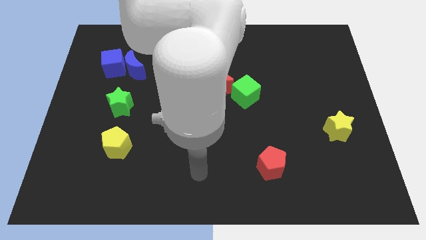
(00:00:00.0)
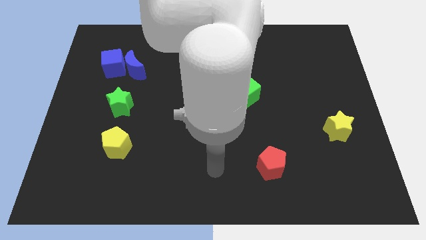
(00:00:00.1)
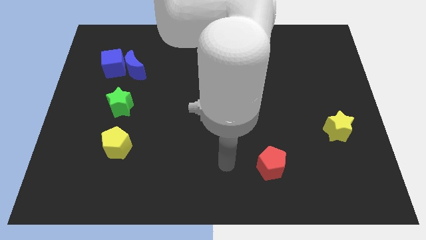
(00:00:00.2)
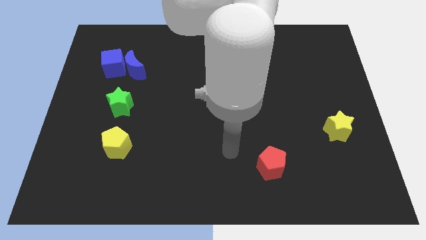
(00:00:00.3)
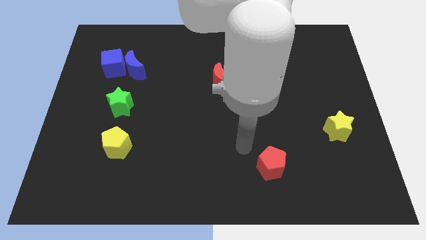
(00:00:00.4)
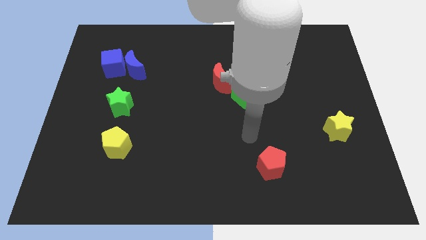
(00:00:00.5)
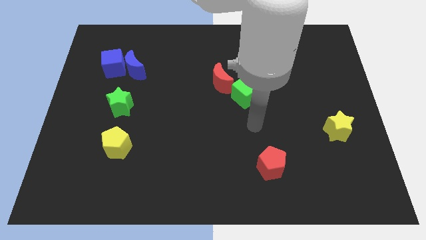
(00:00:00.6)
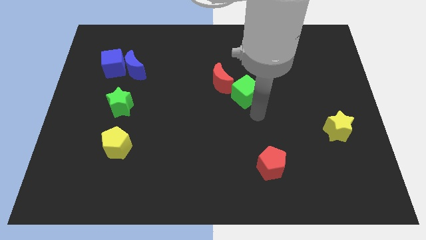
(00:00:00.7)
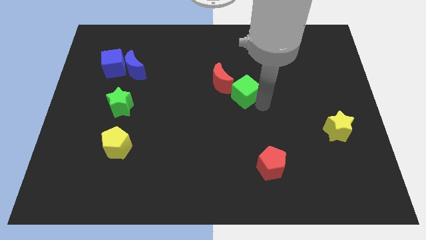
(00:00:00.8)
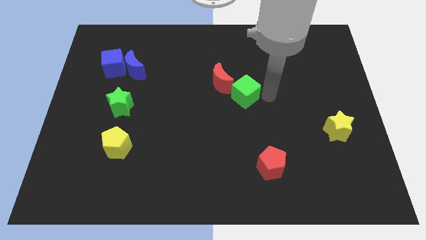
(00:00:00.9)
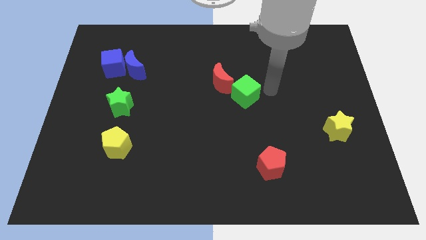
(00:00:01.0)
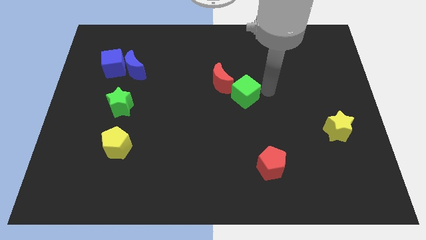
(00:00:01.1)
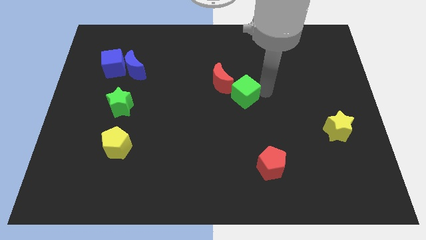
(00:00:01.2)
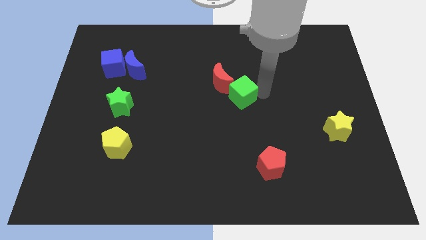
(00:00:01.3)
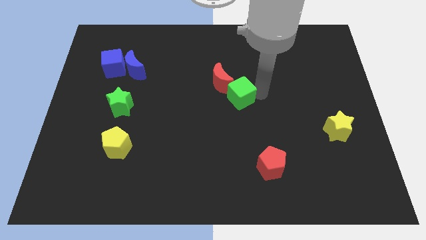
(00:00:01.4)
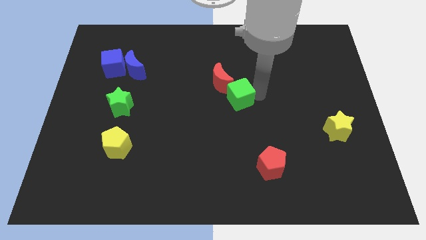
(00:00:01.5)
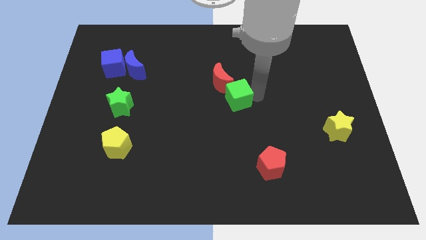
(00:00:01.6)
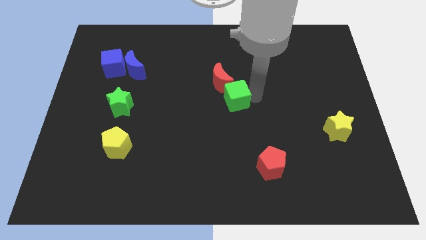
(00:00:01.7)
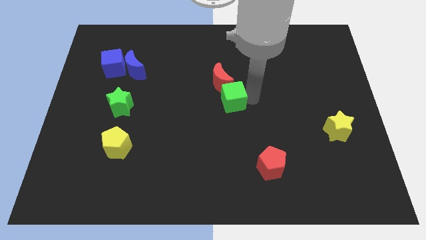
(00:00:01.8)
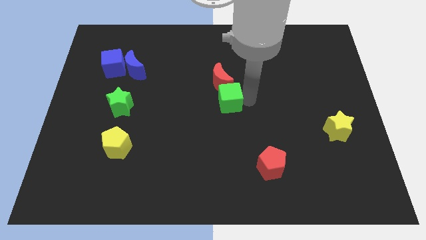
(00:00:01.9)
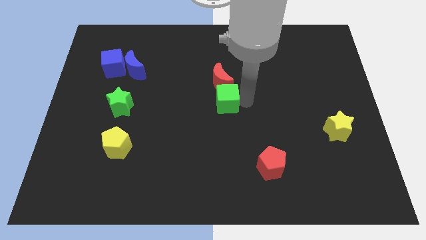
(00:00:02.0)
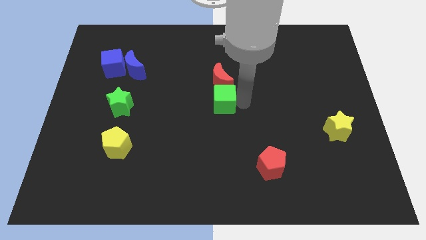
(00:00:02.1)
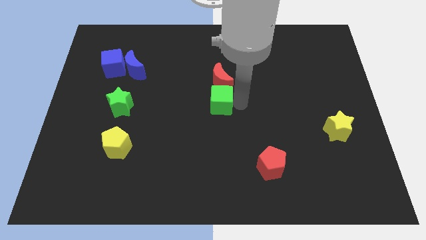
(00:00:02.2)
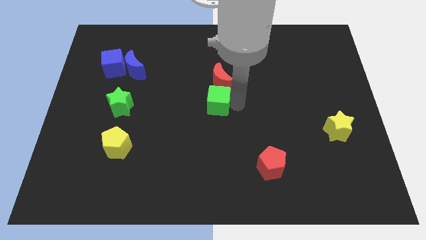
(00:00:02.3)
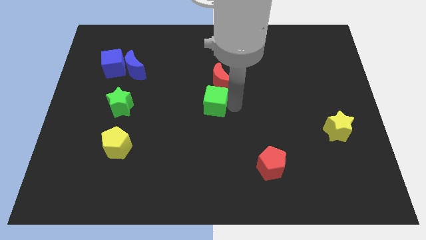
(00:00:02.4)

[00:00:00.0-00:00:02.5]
slide the green cube to the left slightly

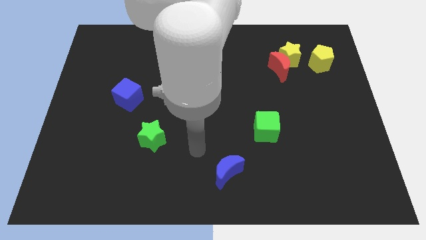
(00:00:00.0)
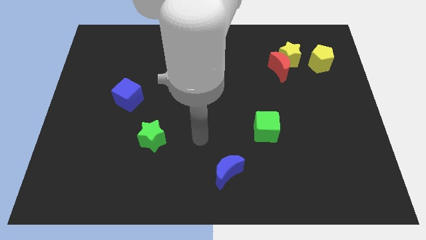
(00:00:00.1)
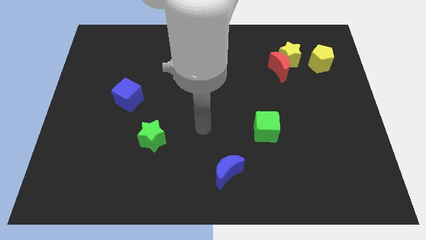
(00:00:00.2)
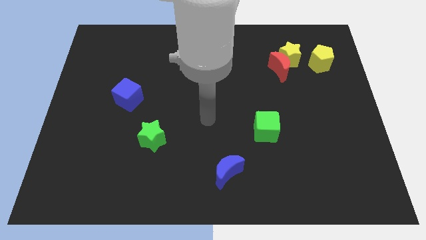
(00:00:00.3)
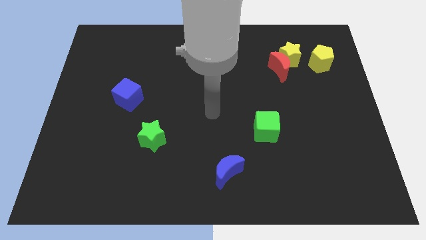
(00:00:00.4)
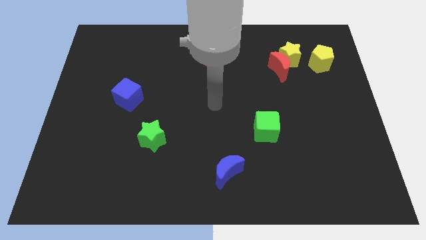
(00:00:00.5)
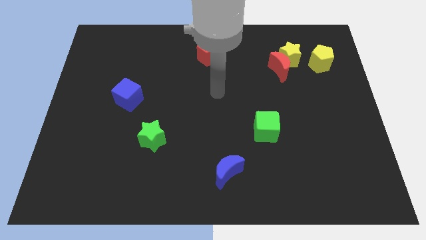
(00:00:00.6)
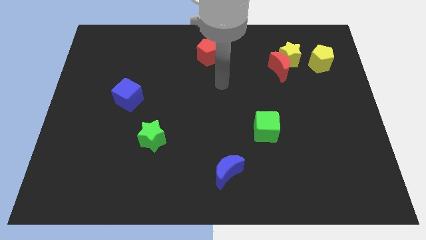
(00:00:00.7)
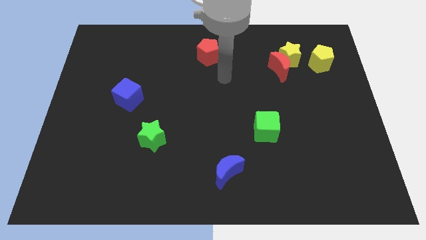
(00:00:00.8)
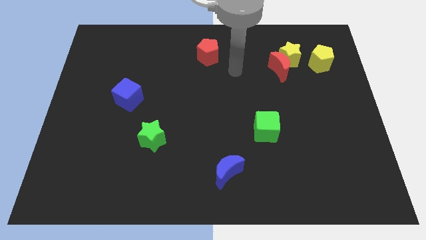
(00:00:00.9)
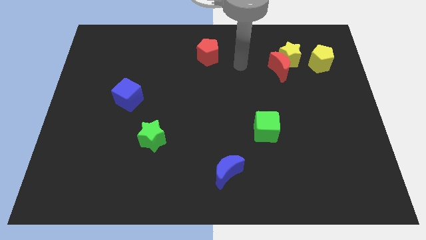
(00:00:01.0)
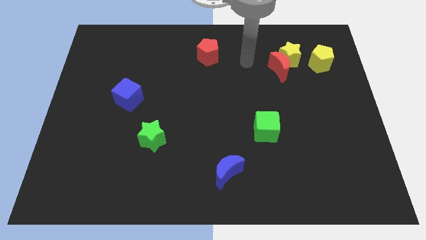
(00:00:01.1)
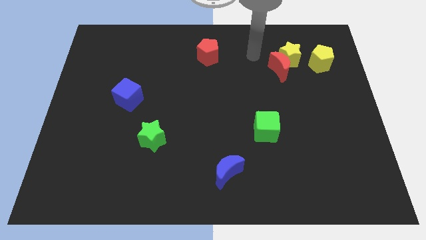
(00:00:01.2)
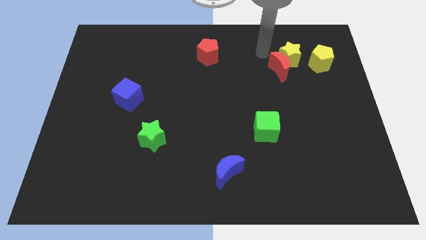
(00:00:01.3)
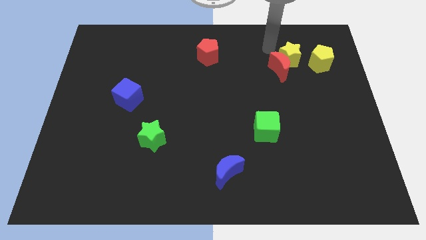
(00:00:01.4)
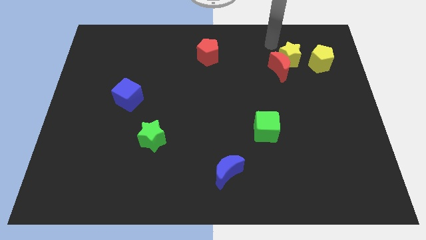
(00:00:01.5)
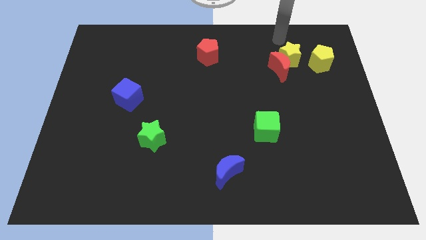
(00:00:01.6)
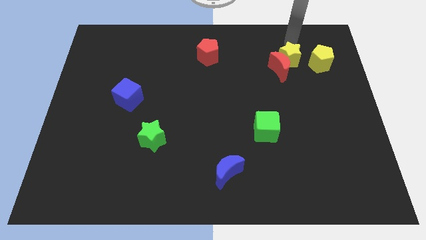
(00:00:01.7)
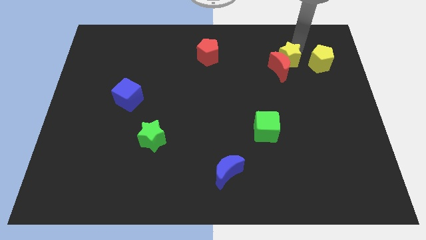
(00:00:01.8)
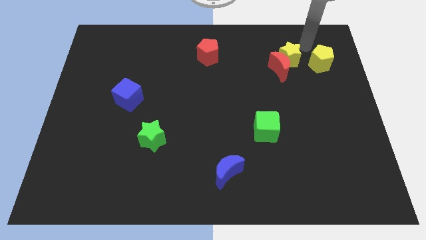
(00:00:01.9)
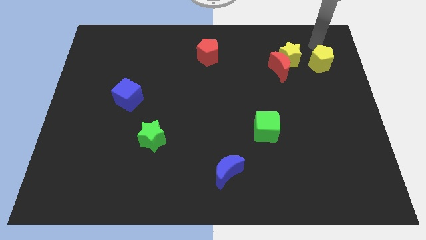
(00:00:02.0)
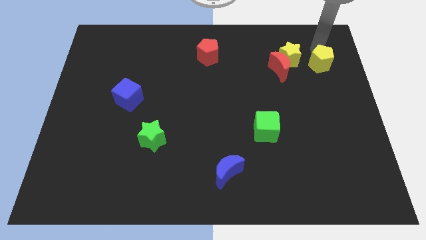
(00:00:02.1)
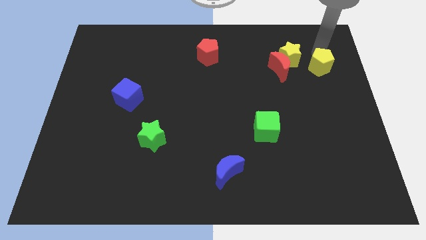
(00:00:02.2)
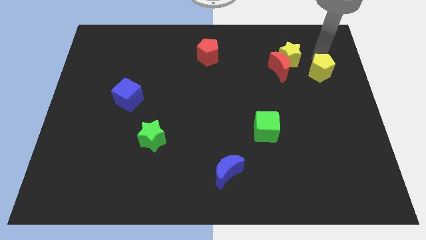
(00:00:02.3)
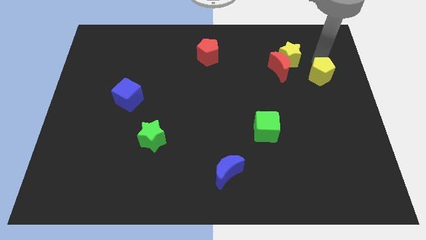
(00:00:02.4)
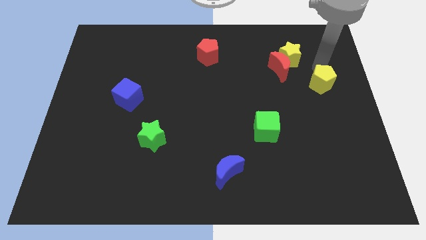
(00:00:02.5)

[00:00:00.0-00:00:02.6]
slightly move the yellow pentagon down

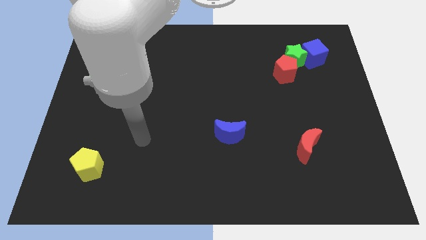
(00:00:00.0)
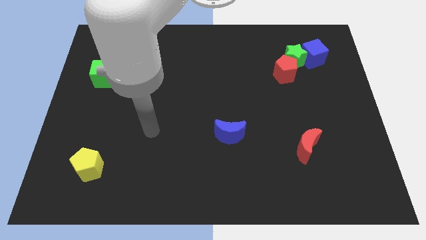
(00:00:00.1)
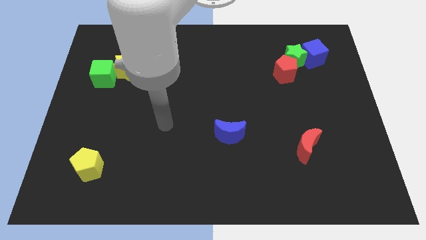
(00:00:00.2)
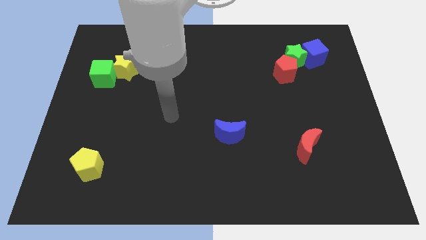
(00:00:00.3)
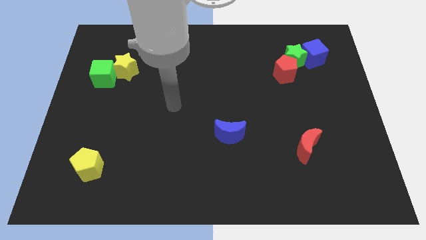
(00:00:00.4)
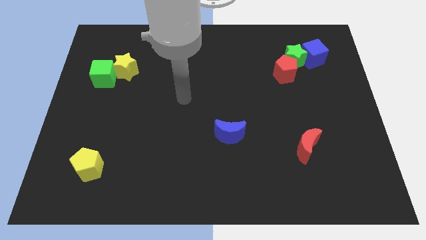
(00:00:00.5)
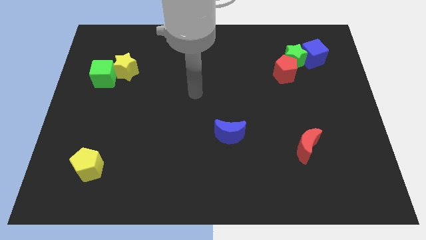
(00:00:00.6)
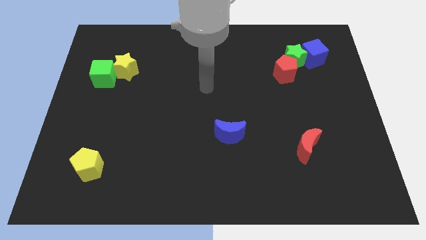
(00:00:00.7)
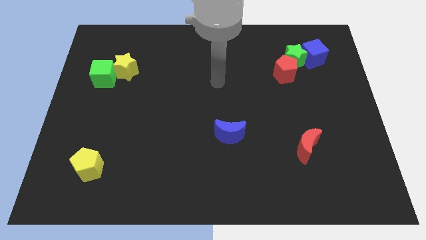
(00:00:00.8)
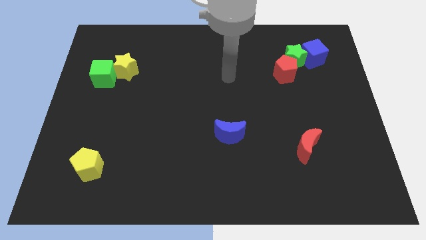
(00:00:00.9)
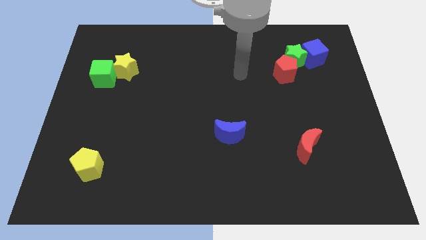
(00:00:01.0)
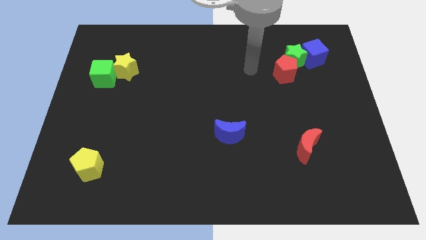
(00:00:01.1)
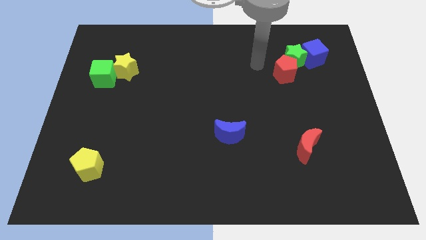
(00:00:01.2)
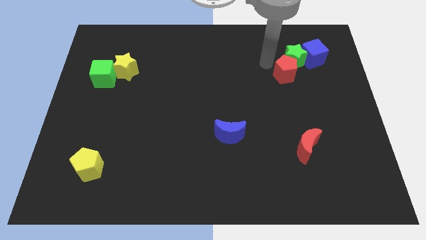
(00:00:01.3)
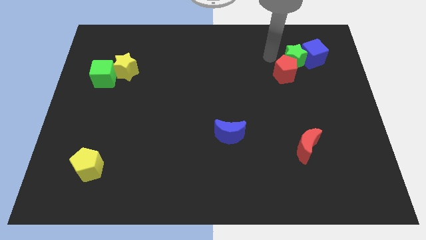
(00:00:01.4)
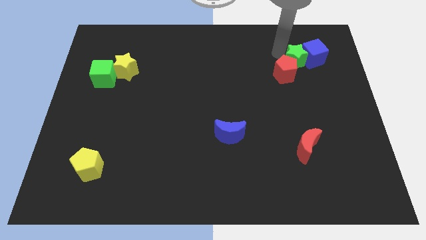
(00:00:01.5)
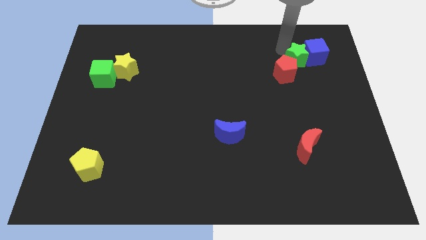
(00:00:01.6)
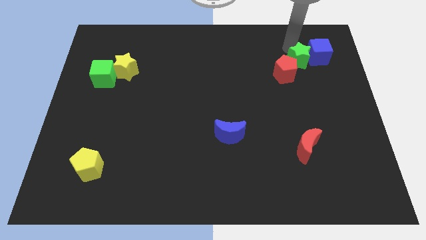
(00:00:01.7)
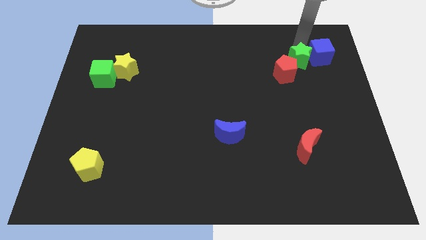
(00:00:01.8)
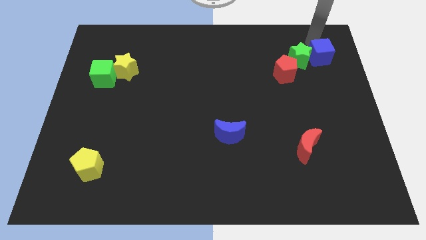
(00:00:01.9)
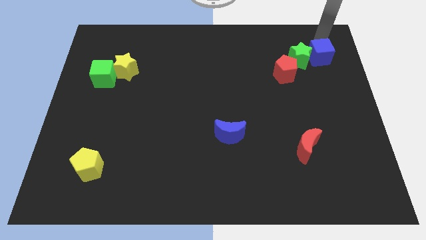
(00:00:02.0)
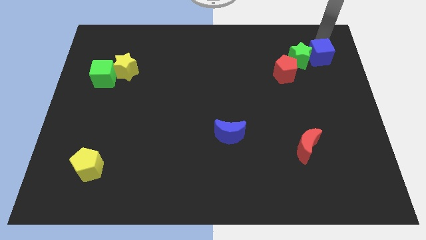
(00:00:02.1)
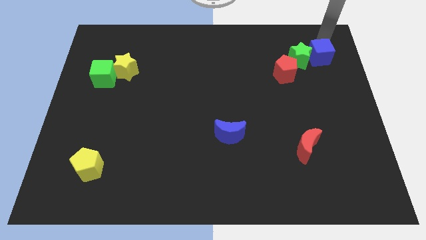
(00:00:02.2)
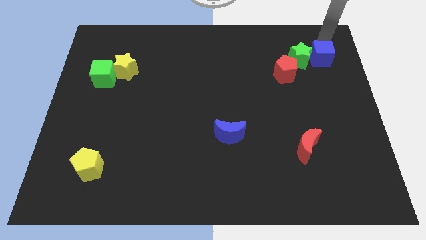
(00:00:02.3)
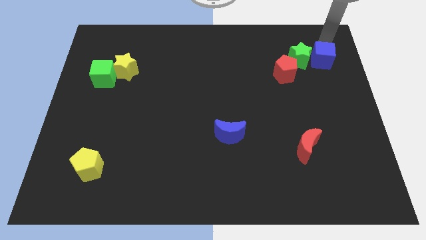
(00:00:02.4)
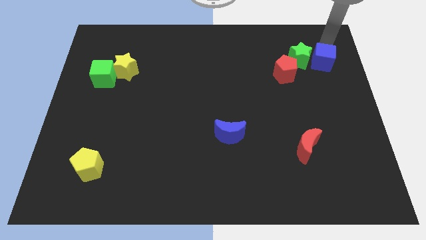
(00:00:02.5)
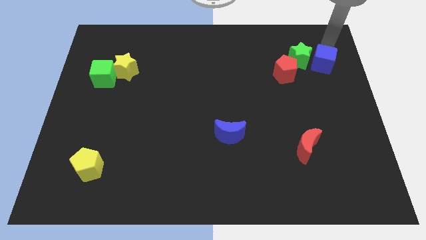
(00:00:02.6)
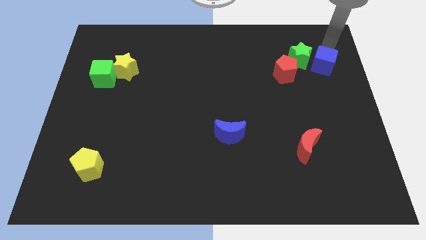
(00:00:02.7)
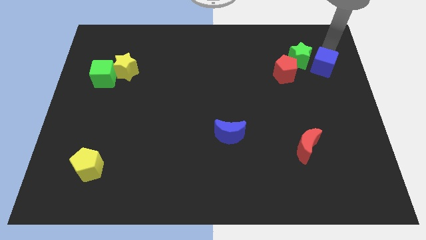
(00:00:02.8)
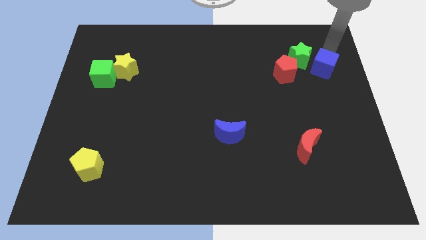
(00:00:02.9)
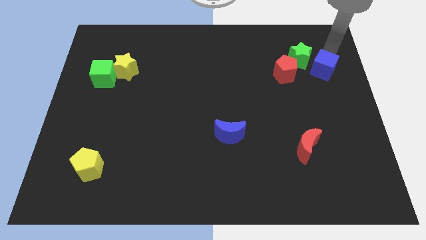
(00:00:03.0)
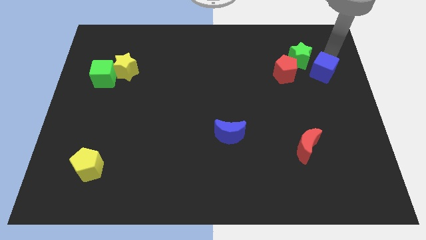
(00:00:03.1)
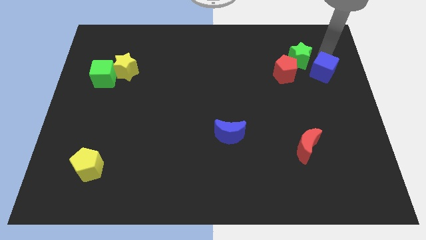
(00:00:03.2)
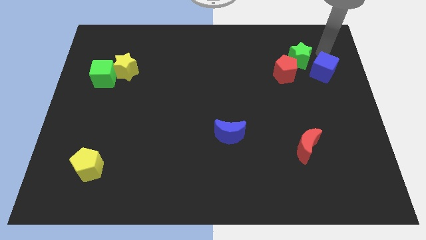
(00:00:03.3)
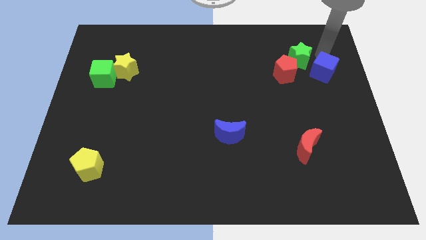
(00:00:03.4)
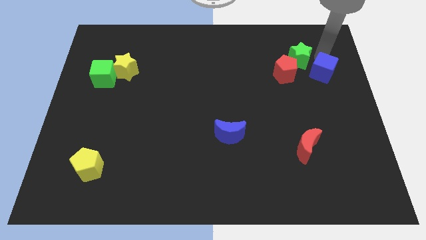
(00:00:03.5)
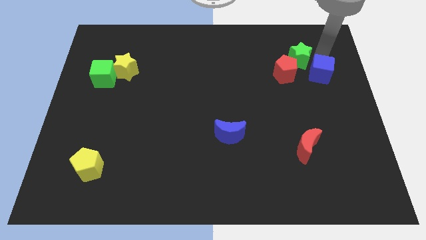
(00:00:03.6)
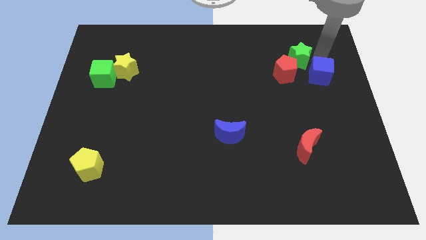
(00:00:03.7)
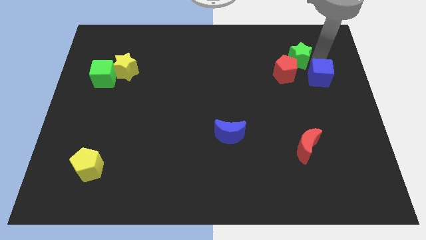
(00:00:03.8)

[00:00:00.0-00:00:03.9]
slide the blue cube downwards a little bit
